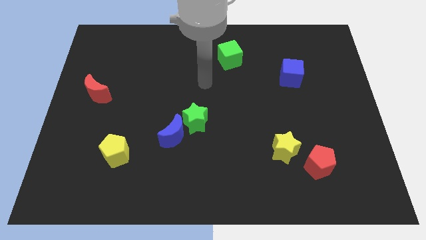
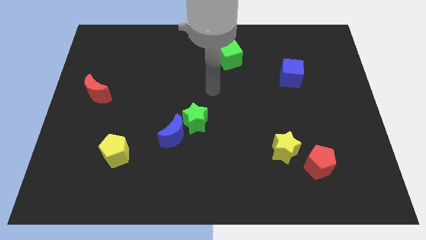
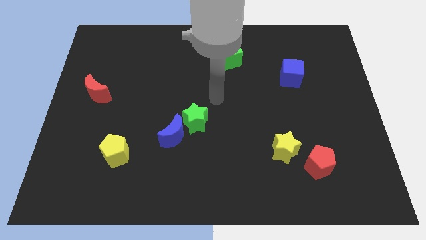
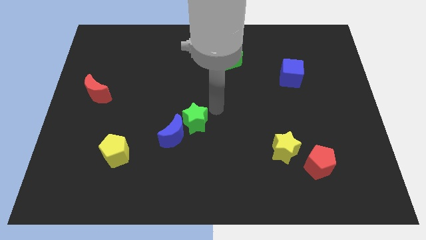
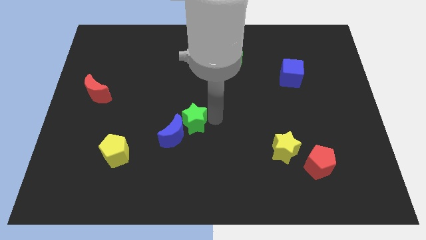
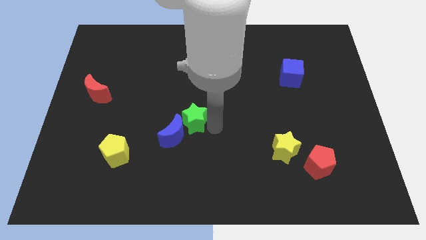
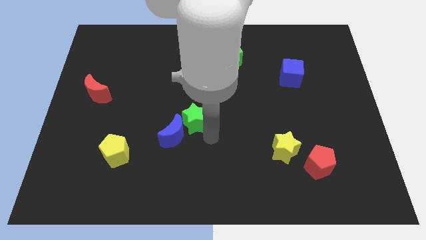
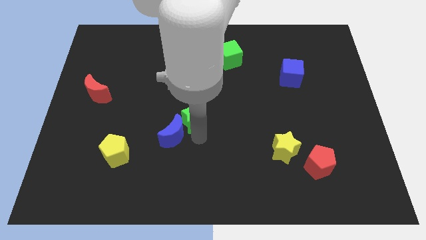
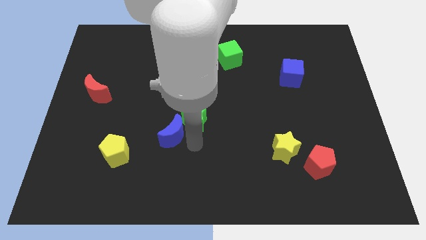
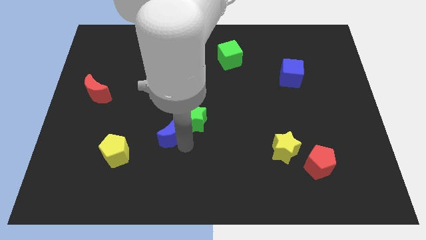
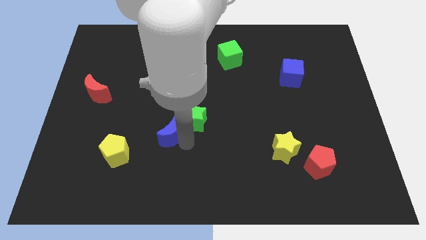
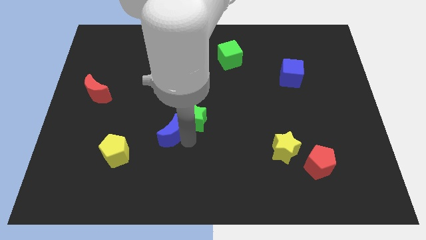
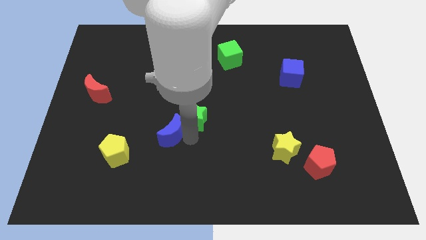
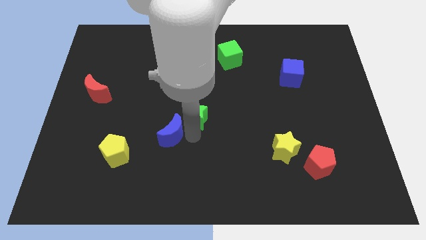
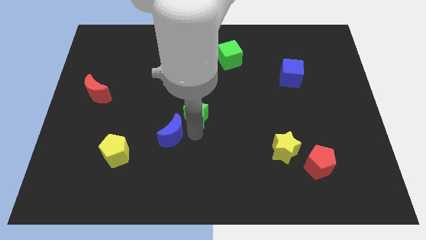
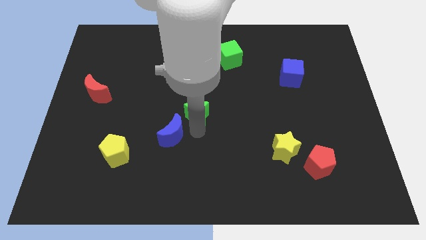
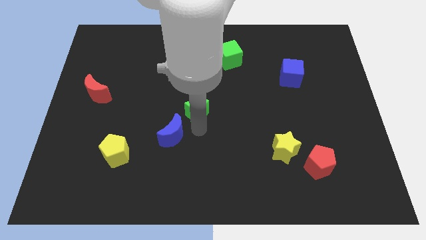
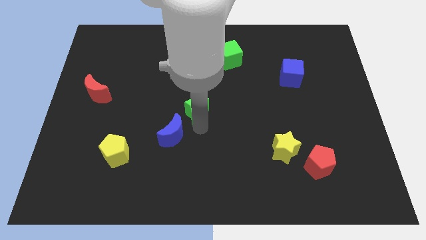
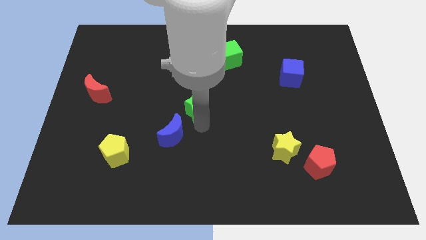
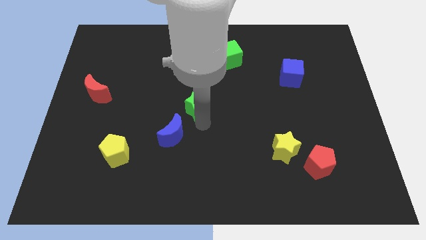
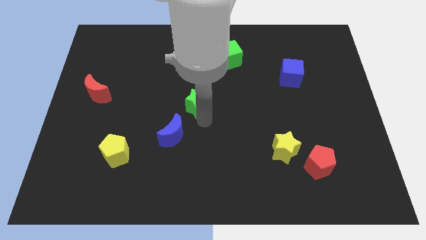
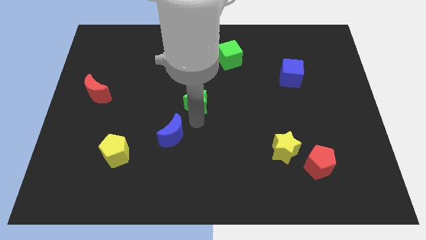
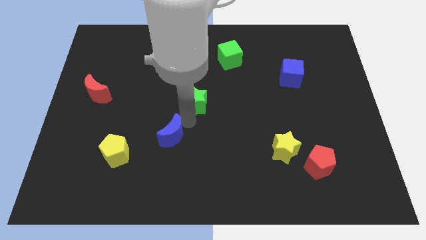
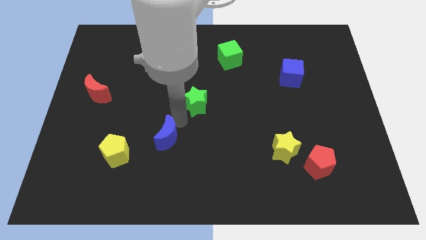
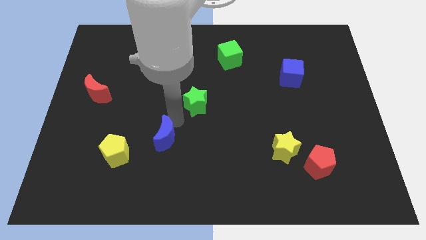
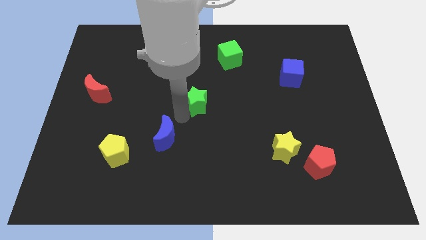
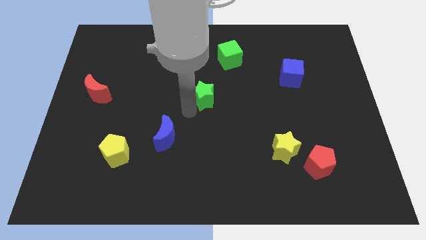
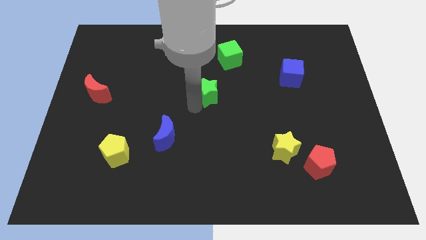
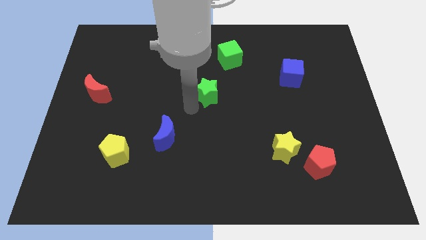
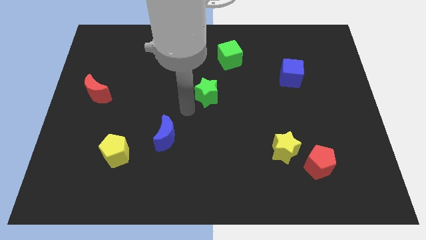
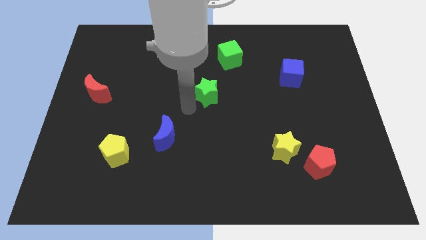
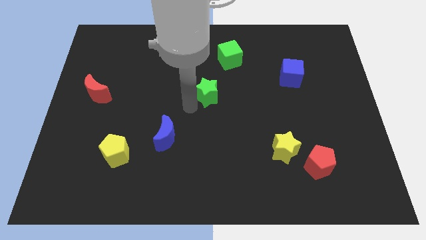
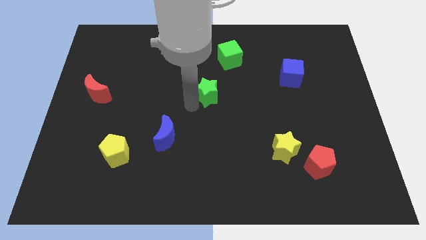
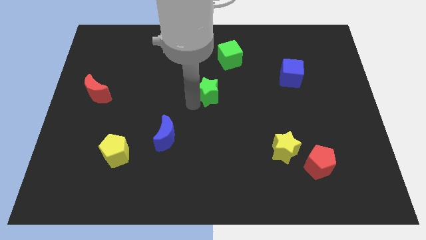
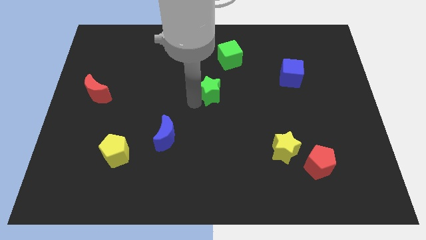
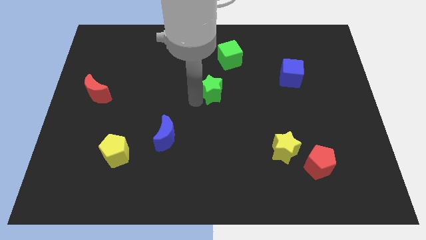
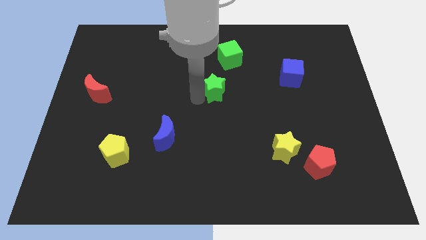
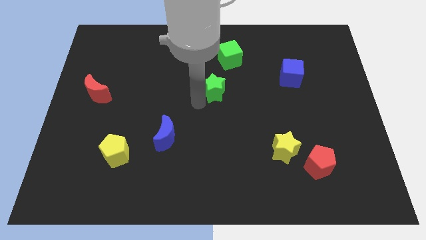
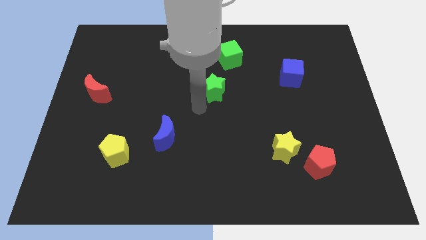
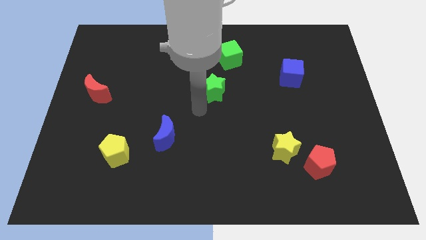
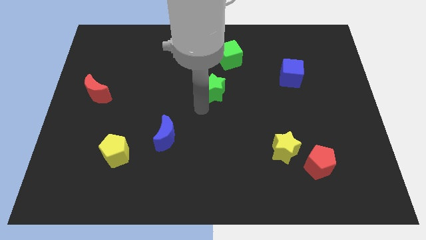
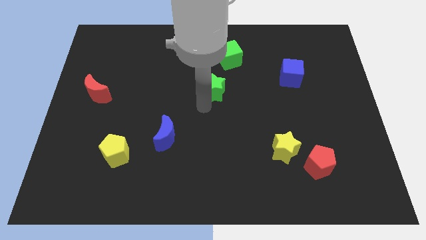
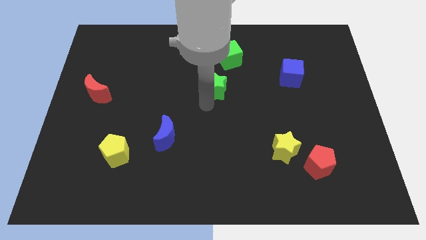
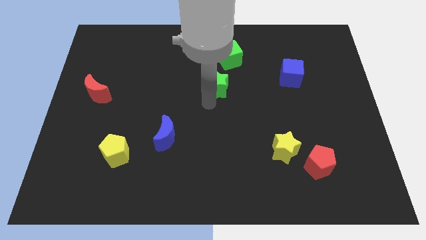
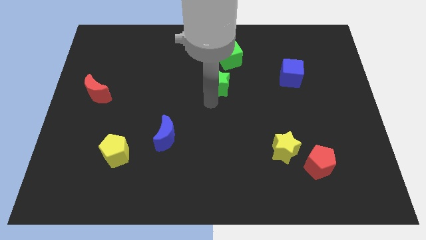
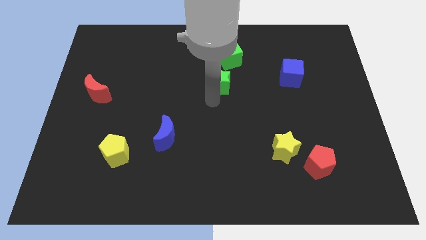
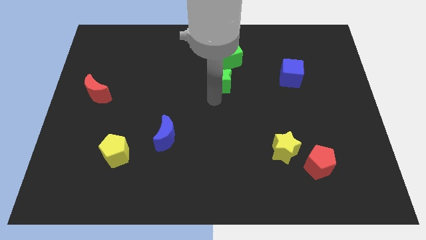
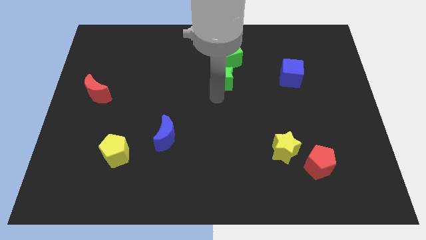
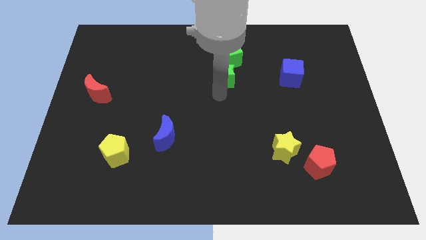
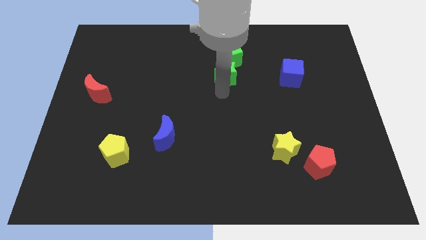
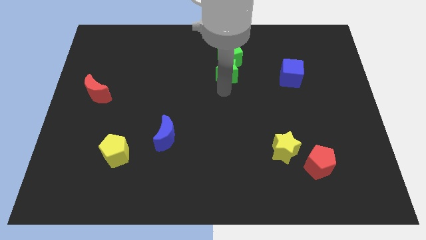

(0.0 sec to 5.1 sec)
move the green star towards the green cube

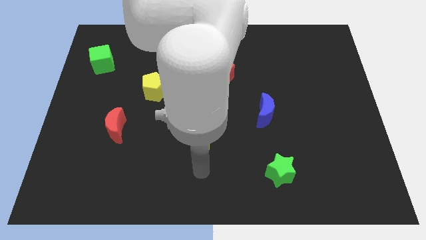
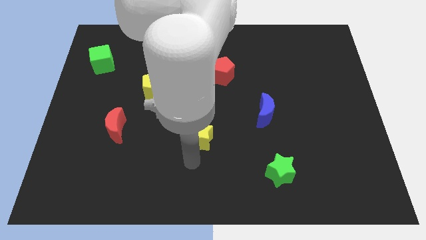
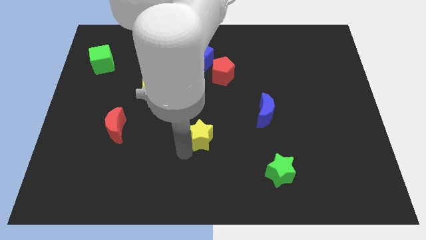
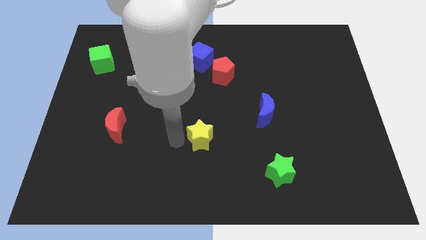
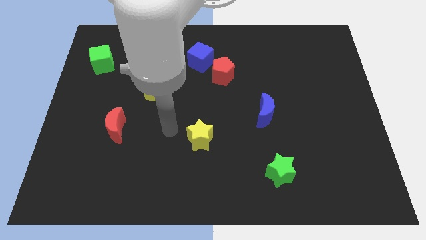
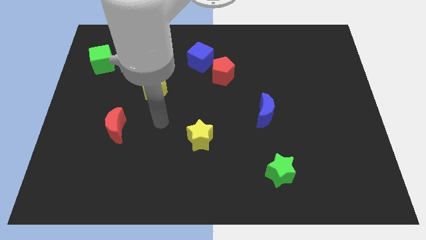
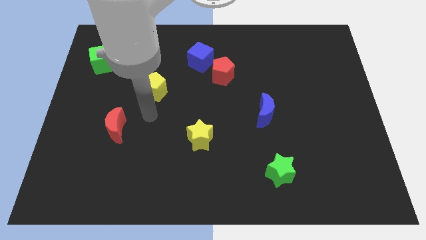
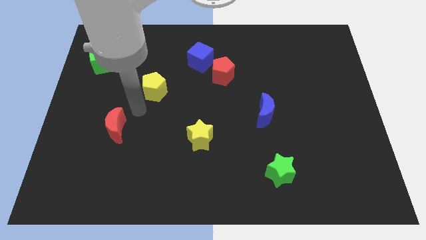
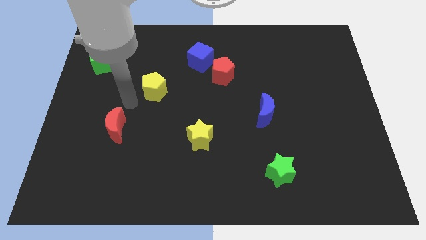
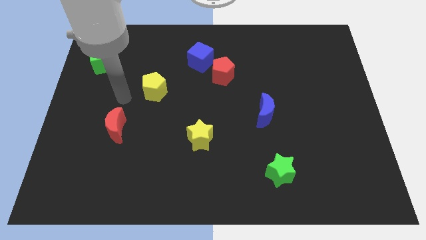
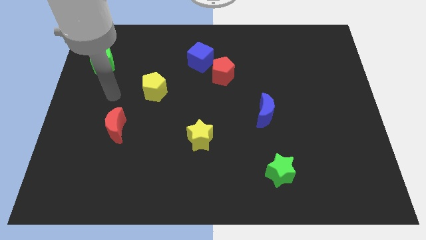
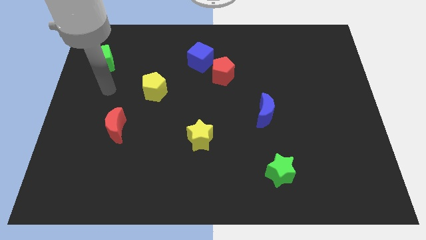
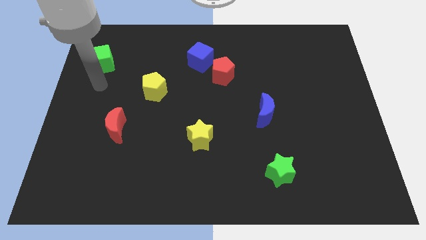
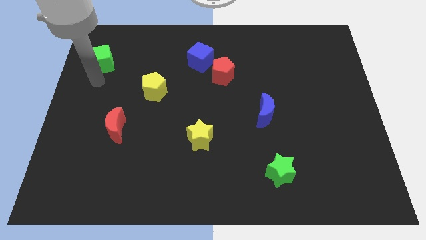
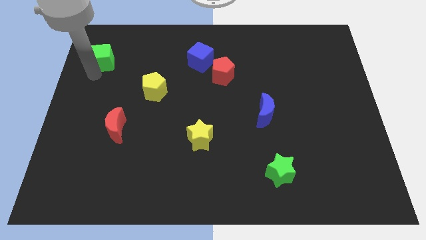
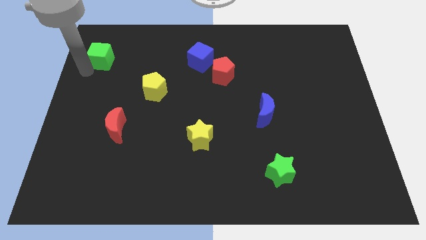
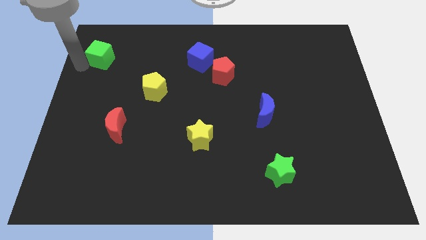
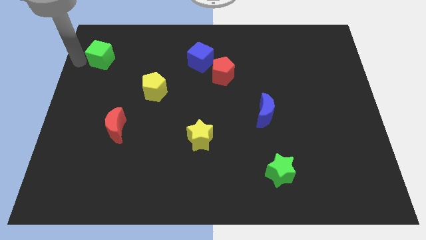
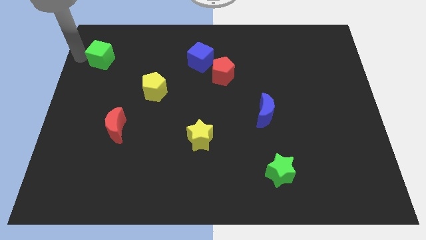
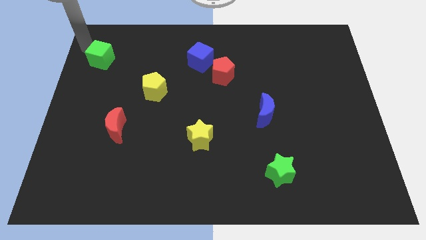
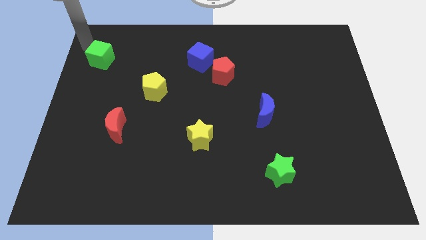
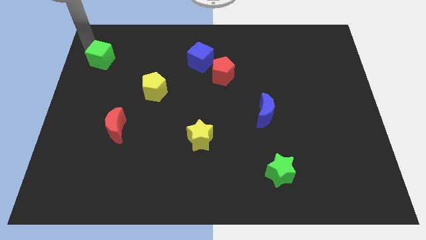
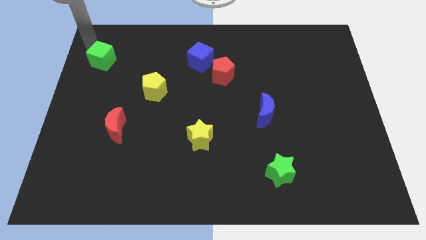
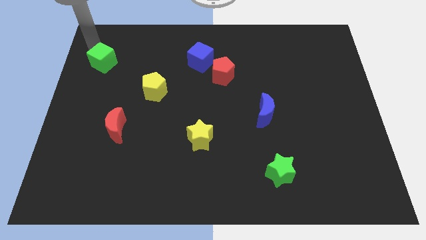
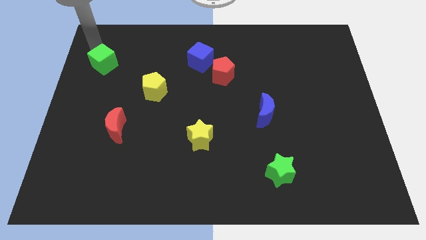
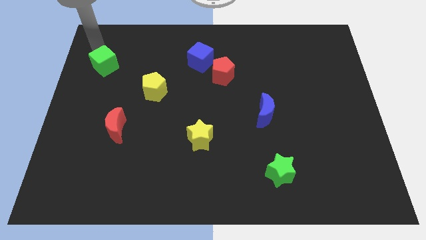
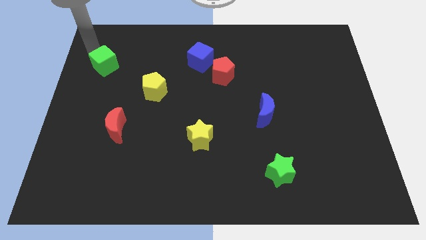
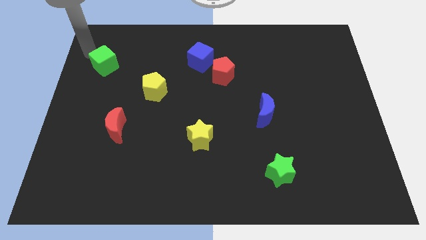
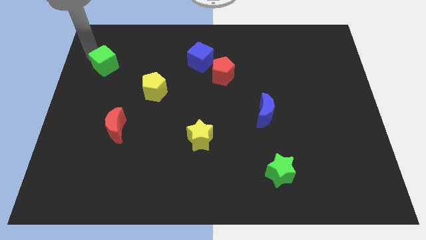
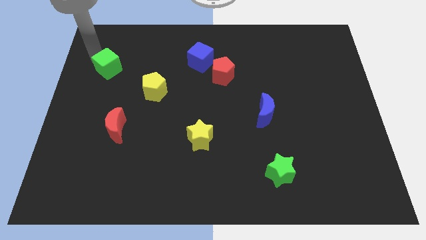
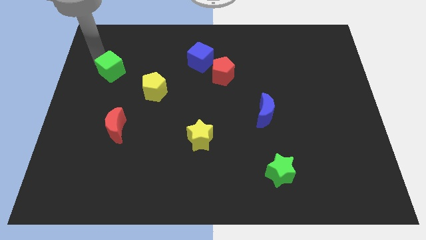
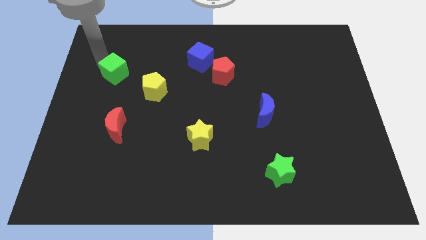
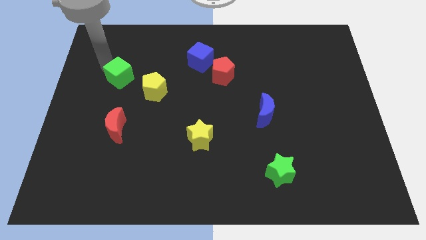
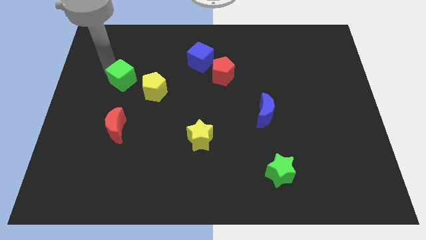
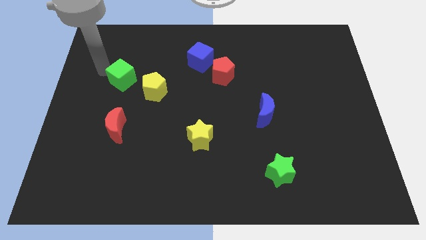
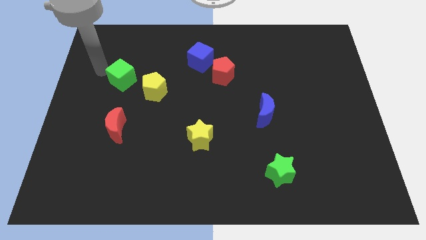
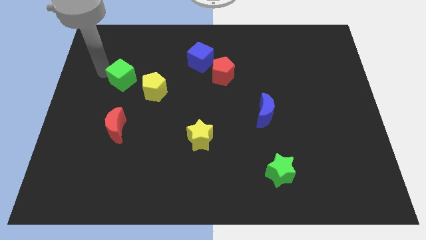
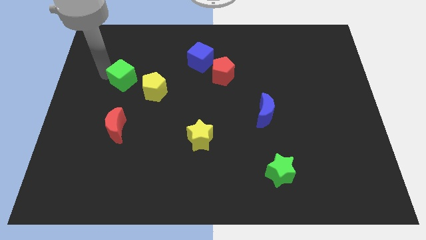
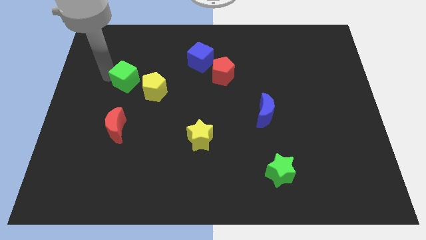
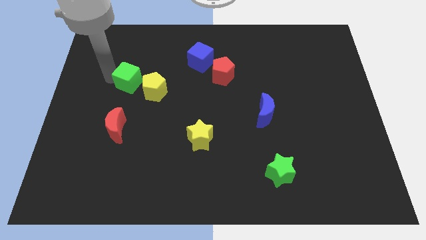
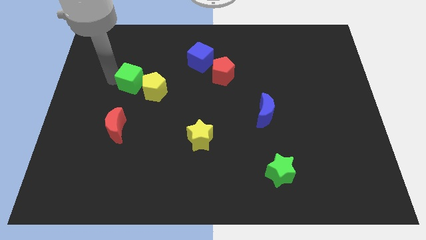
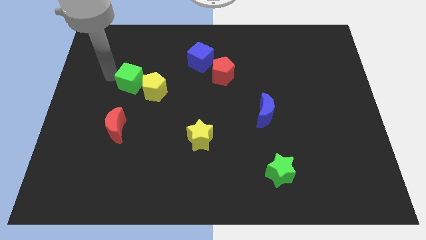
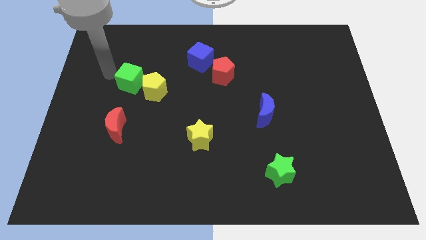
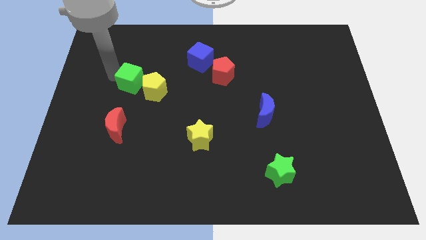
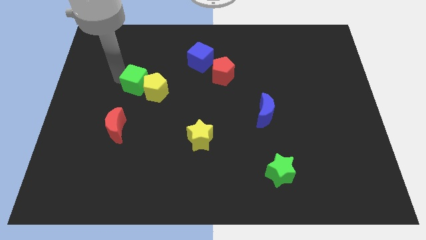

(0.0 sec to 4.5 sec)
move the green cube close to the yellow pentagon
